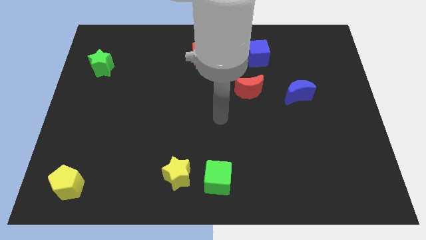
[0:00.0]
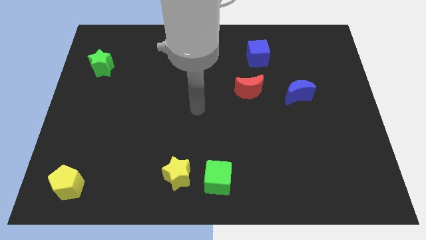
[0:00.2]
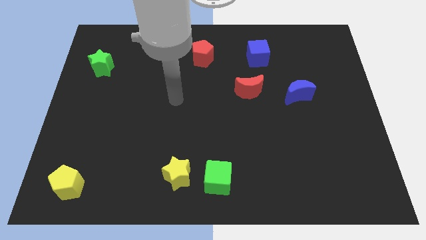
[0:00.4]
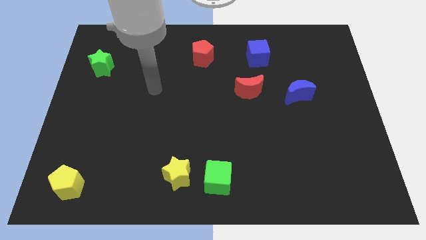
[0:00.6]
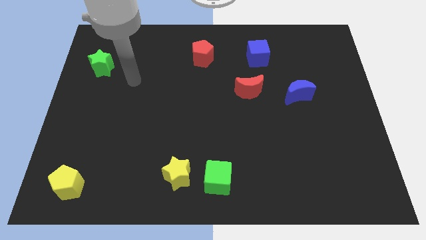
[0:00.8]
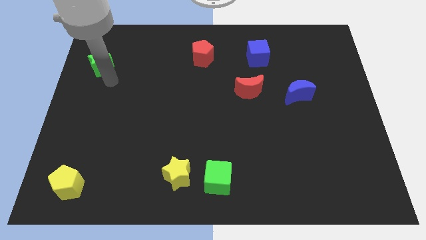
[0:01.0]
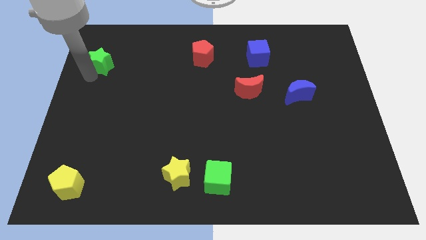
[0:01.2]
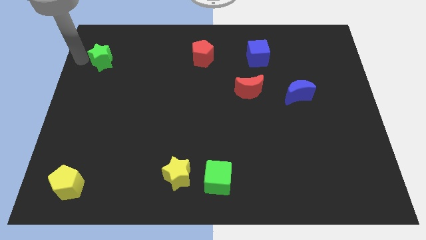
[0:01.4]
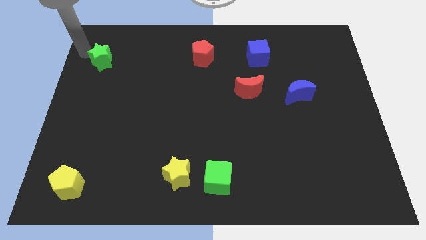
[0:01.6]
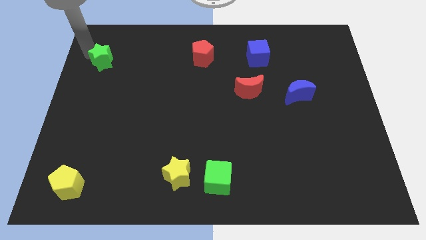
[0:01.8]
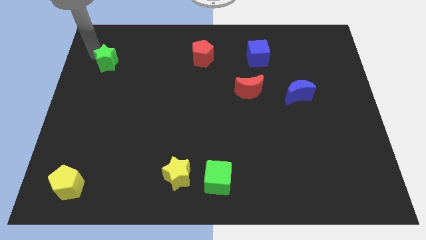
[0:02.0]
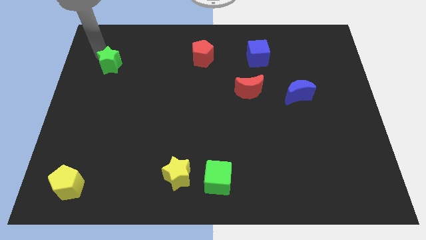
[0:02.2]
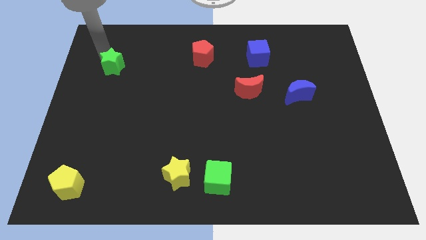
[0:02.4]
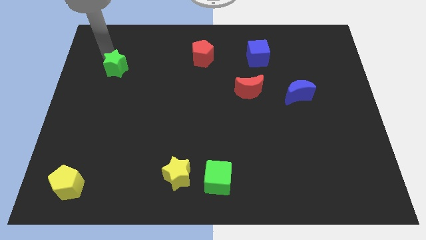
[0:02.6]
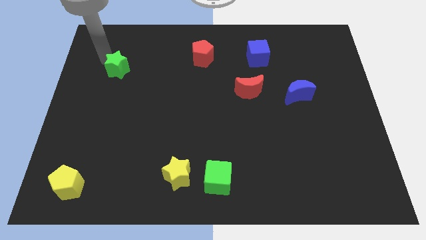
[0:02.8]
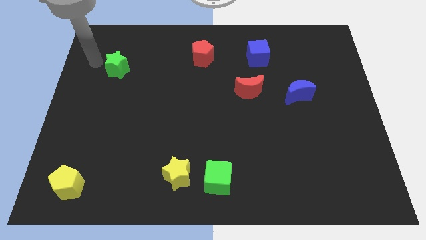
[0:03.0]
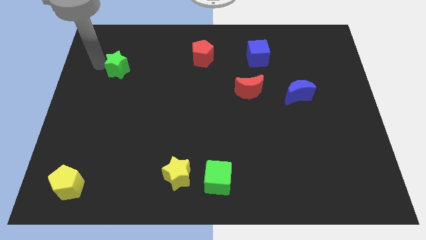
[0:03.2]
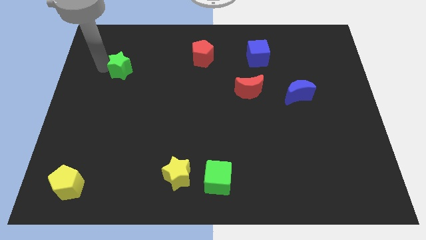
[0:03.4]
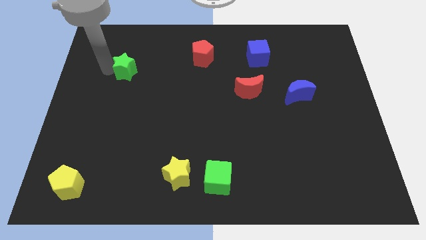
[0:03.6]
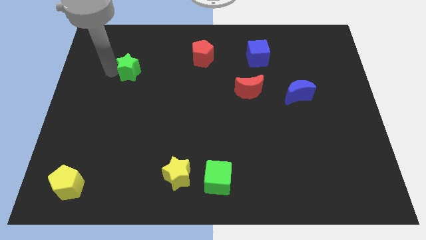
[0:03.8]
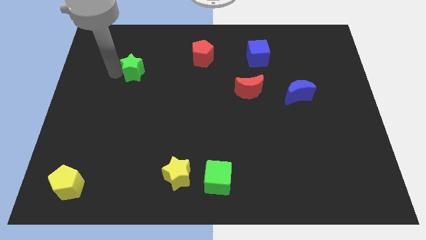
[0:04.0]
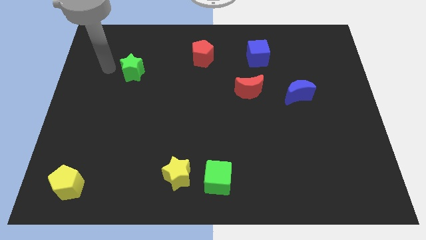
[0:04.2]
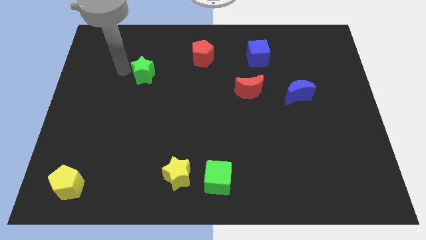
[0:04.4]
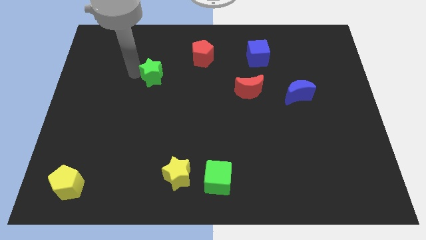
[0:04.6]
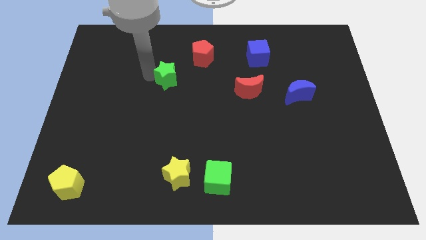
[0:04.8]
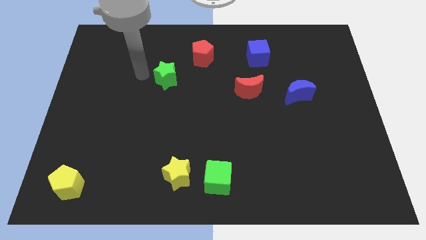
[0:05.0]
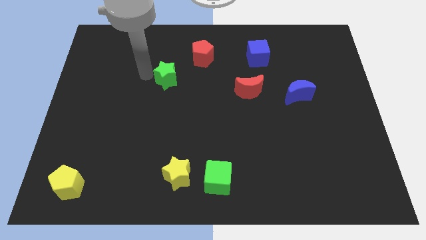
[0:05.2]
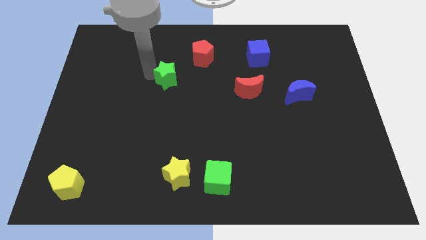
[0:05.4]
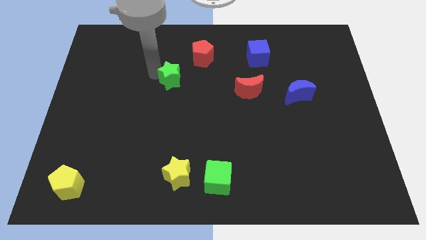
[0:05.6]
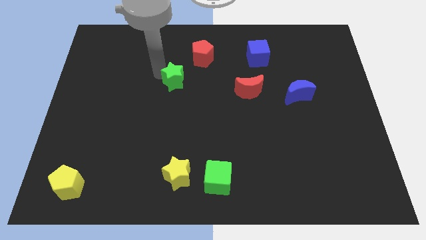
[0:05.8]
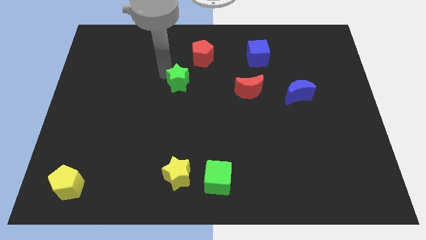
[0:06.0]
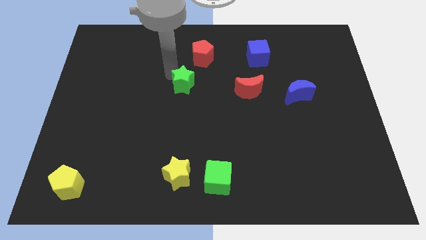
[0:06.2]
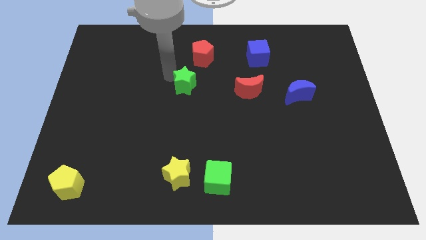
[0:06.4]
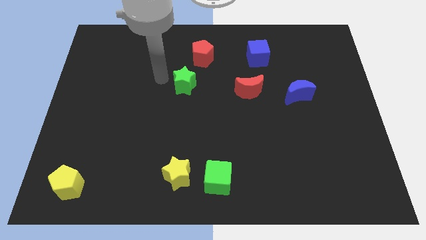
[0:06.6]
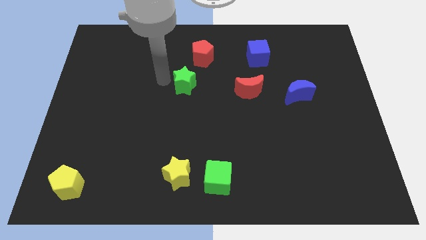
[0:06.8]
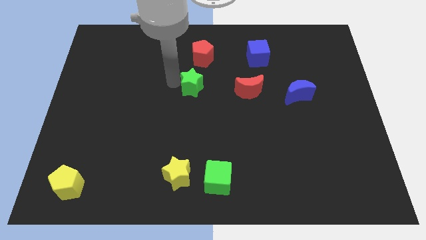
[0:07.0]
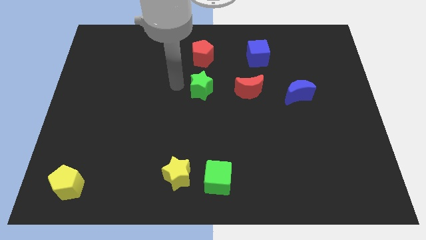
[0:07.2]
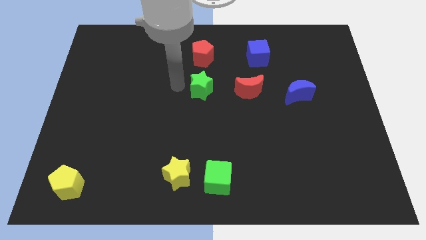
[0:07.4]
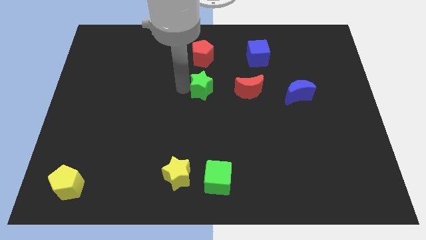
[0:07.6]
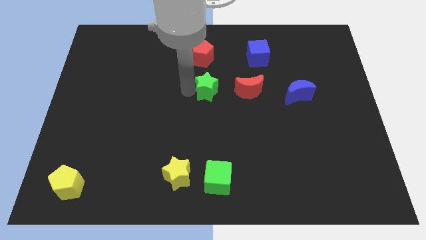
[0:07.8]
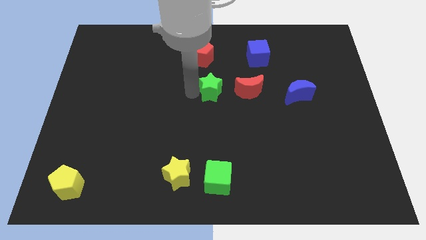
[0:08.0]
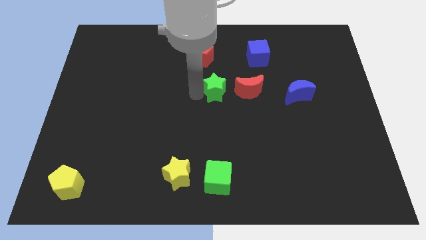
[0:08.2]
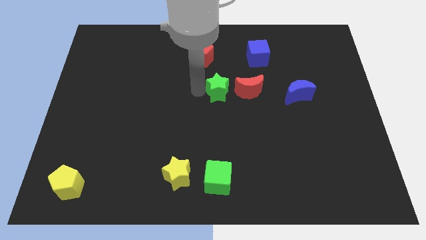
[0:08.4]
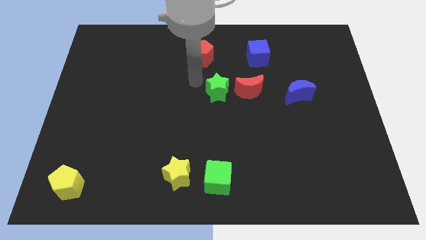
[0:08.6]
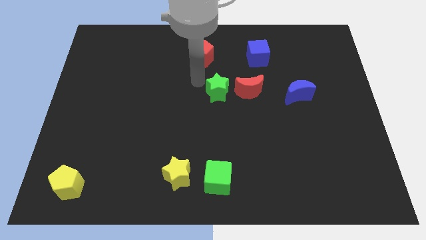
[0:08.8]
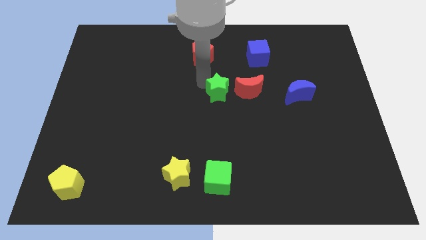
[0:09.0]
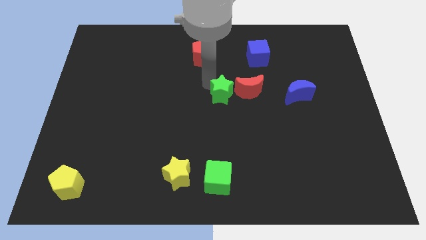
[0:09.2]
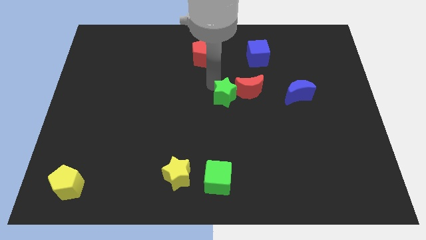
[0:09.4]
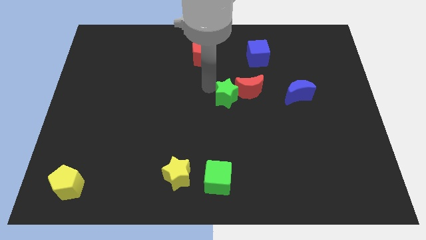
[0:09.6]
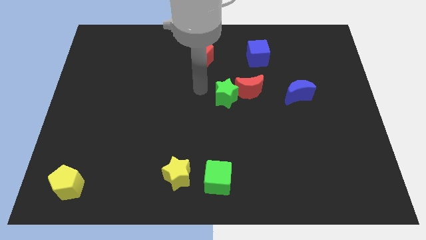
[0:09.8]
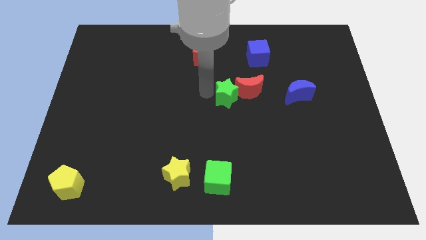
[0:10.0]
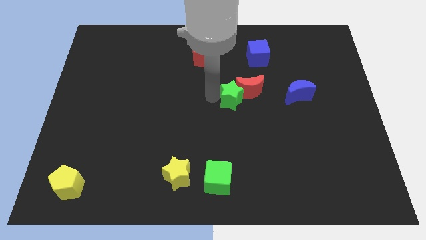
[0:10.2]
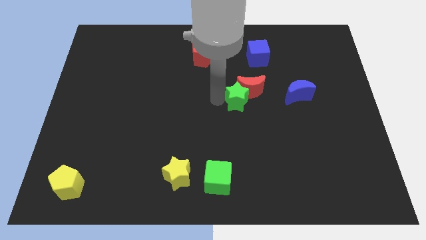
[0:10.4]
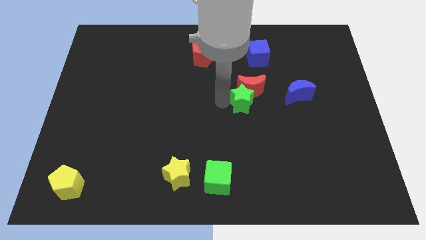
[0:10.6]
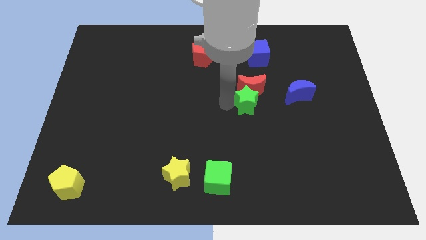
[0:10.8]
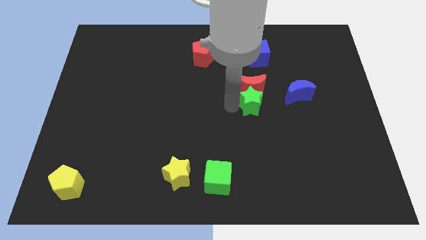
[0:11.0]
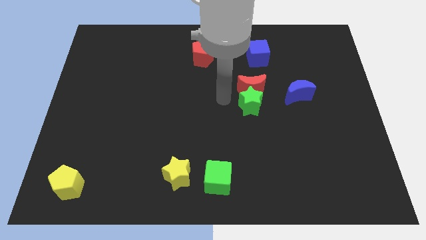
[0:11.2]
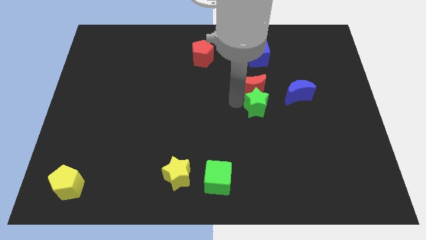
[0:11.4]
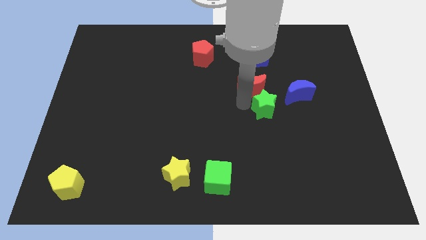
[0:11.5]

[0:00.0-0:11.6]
move the green star to the bottom left of the blue moon
